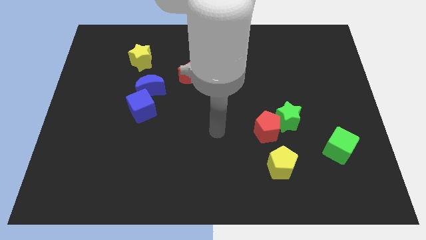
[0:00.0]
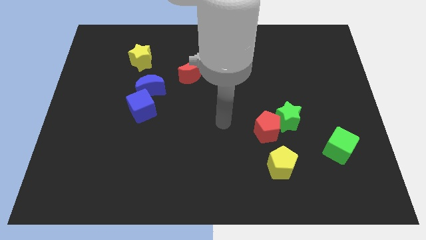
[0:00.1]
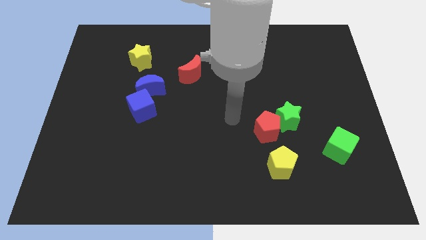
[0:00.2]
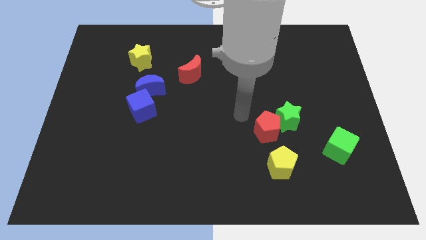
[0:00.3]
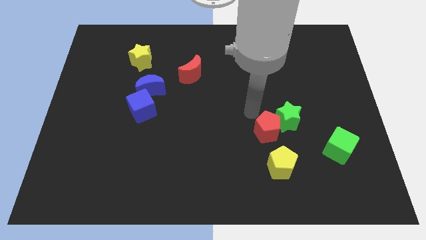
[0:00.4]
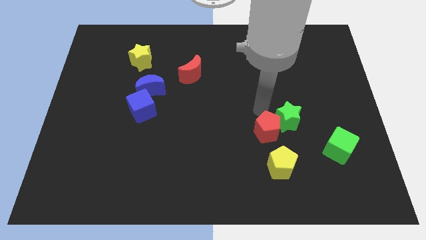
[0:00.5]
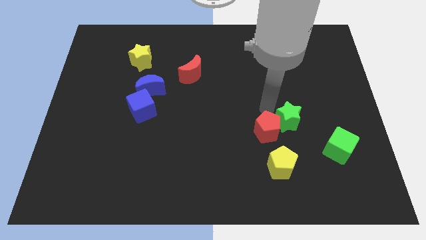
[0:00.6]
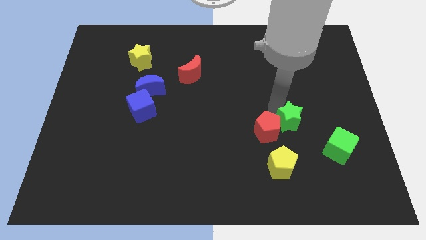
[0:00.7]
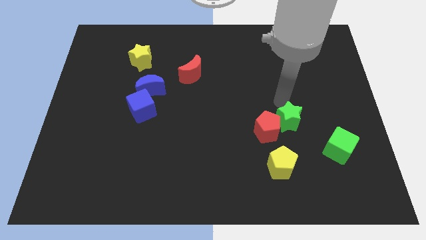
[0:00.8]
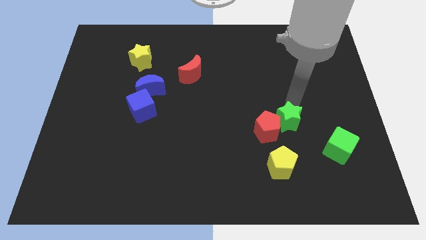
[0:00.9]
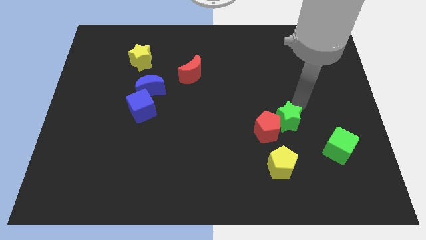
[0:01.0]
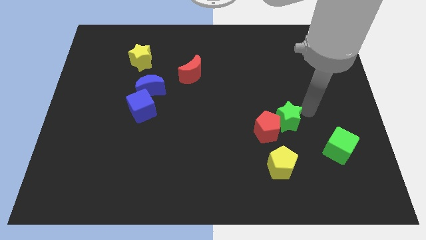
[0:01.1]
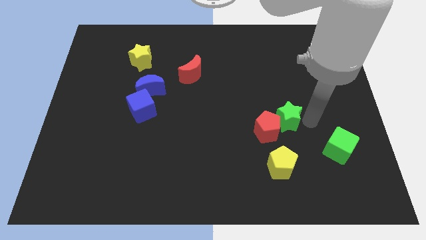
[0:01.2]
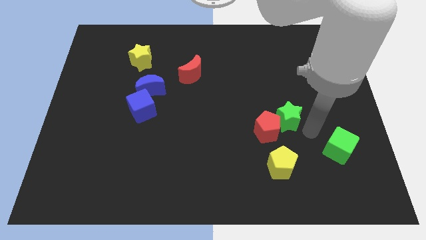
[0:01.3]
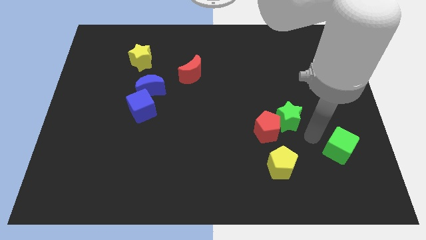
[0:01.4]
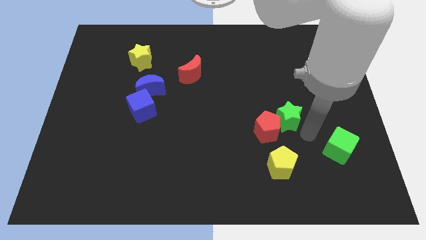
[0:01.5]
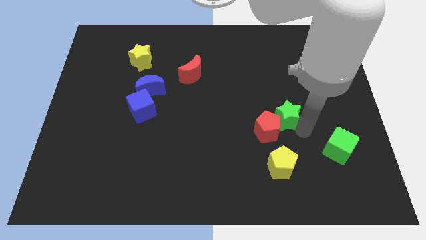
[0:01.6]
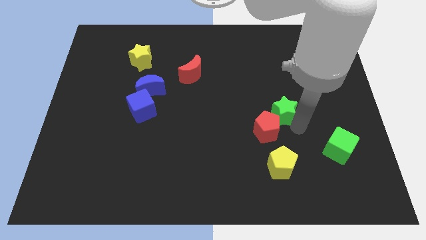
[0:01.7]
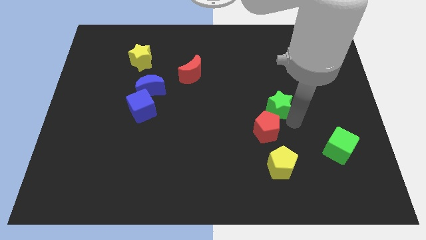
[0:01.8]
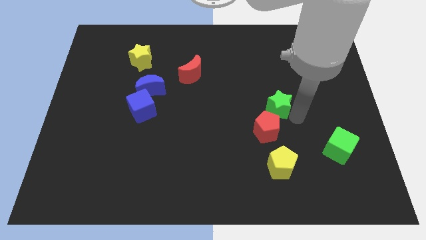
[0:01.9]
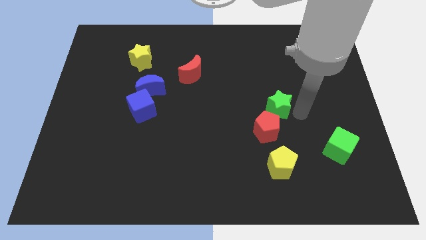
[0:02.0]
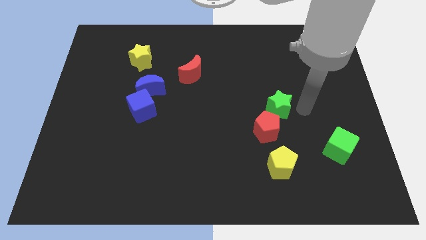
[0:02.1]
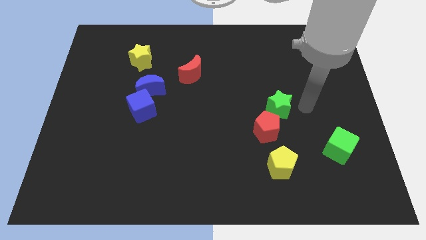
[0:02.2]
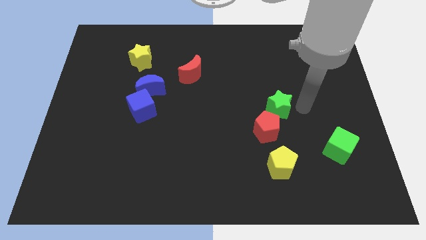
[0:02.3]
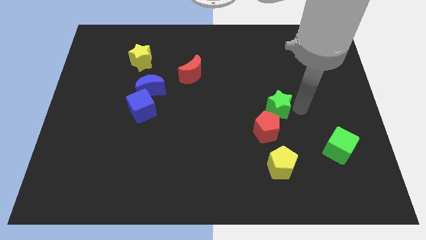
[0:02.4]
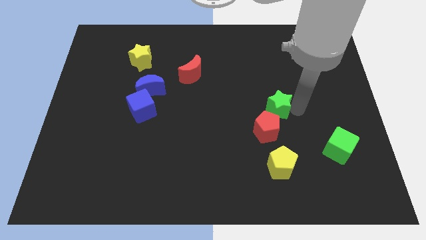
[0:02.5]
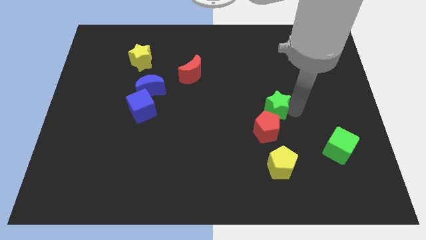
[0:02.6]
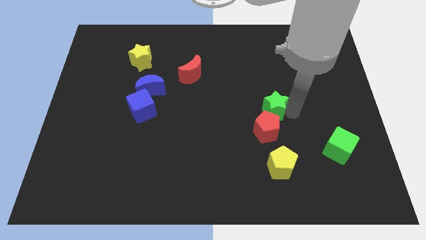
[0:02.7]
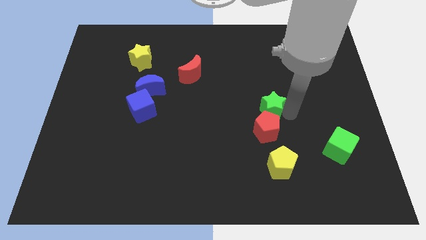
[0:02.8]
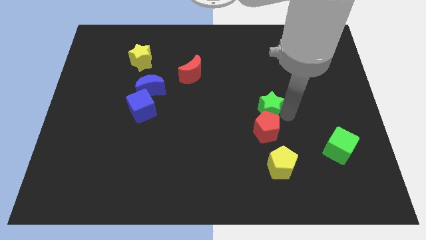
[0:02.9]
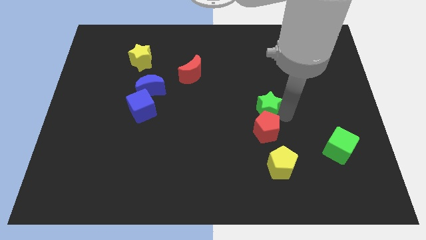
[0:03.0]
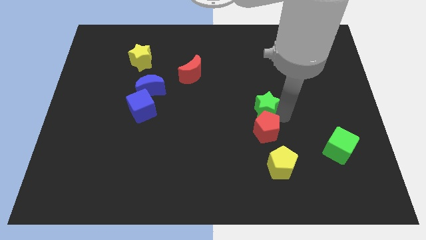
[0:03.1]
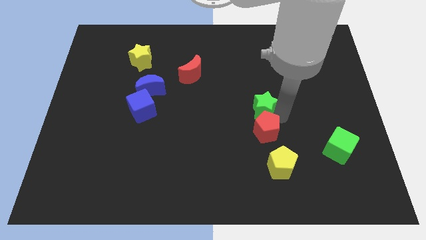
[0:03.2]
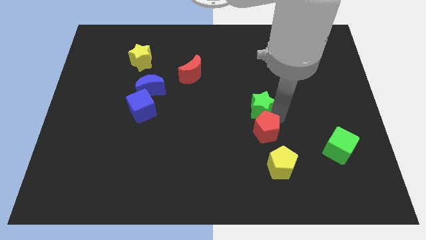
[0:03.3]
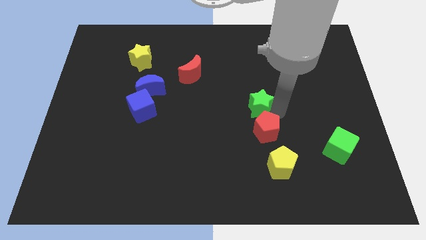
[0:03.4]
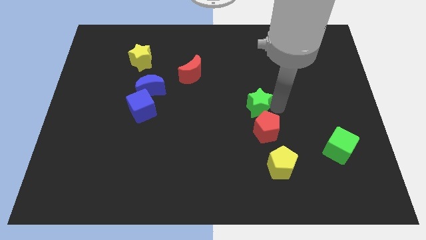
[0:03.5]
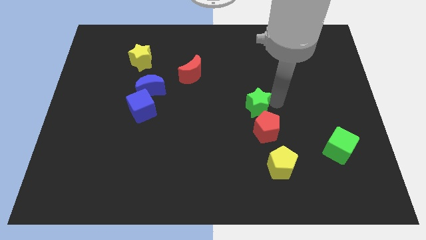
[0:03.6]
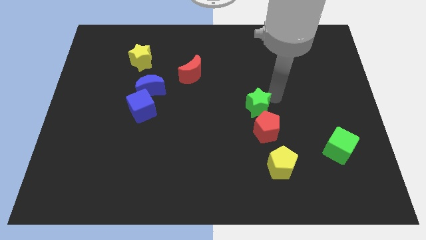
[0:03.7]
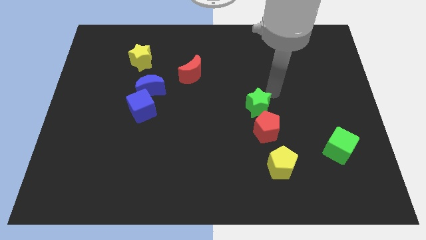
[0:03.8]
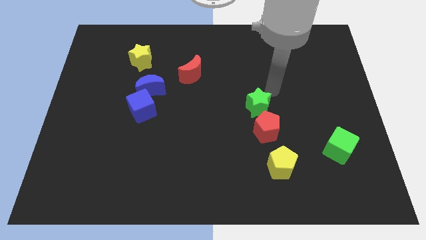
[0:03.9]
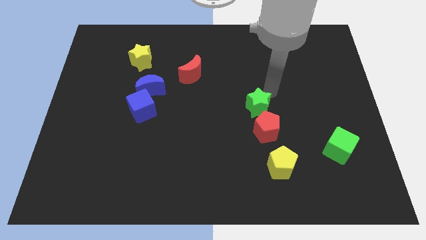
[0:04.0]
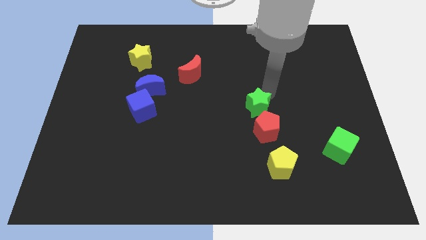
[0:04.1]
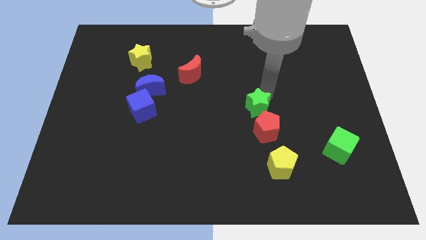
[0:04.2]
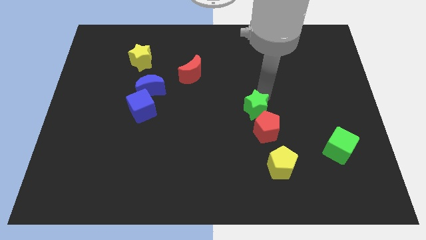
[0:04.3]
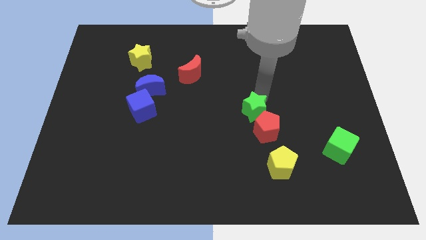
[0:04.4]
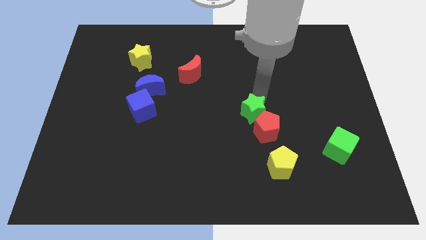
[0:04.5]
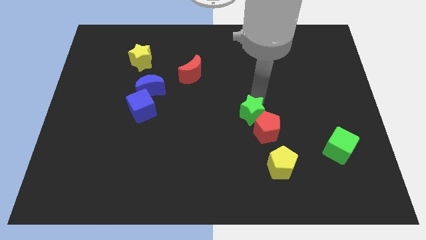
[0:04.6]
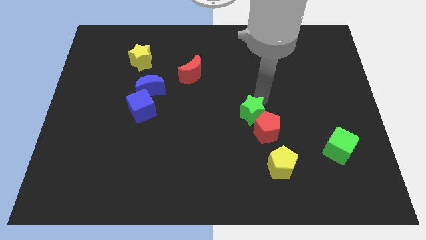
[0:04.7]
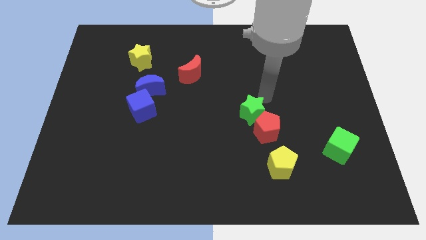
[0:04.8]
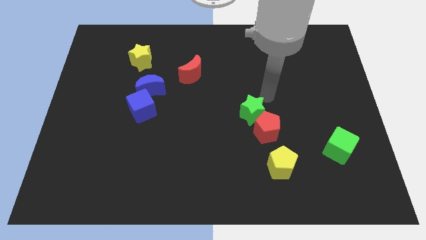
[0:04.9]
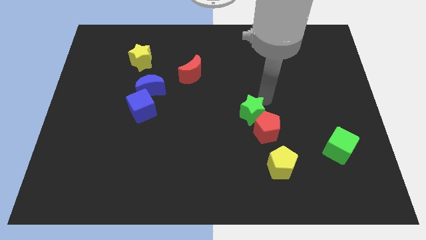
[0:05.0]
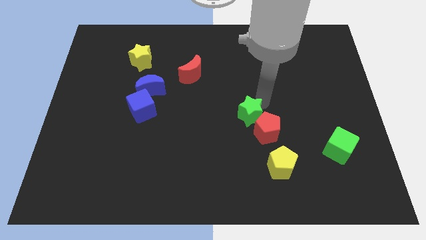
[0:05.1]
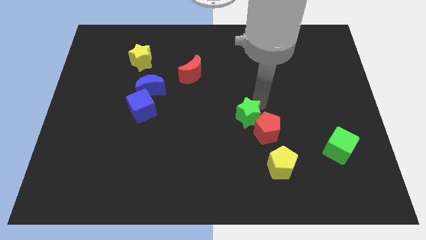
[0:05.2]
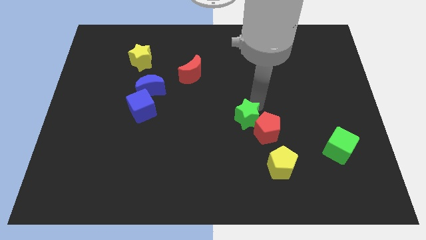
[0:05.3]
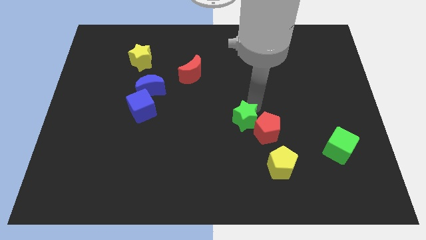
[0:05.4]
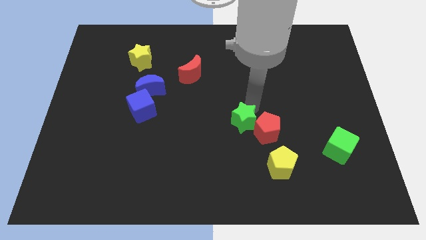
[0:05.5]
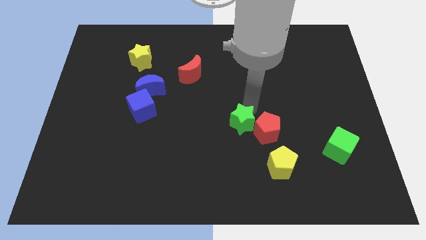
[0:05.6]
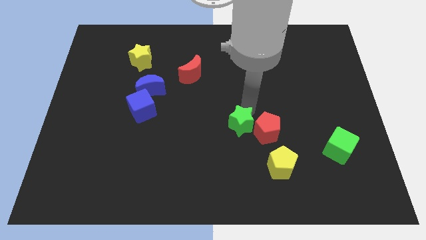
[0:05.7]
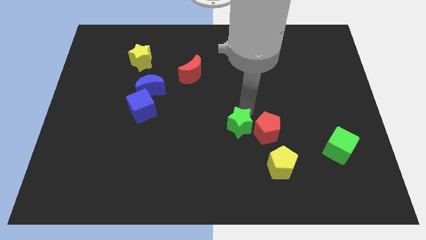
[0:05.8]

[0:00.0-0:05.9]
slightly push the green star down and left diagonally

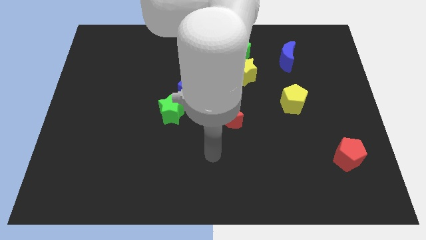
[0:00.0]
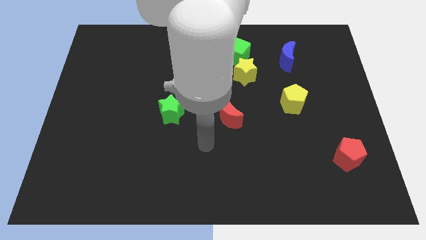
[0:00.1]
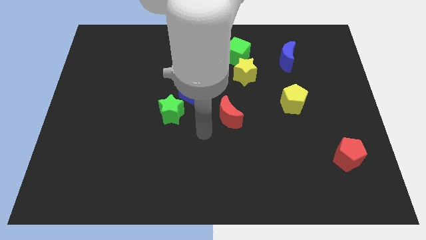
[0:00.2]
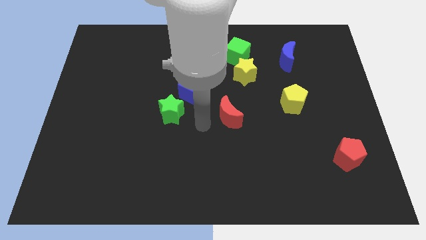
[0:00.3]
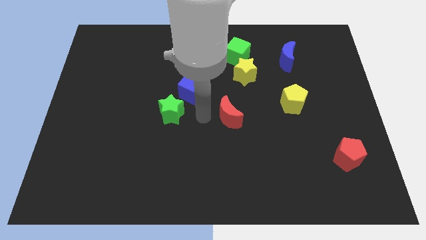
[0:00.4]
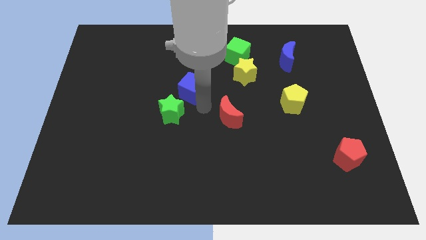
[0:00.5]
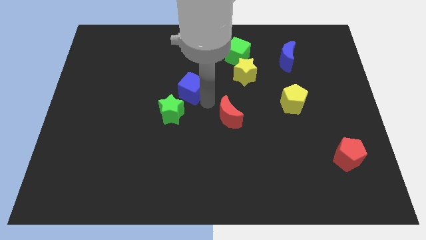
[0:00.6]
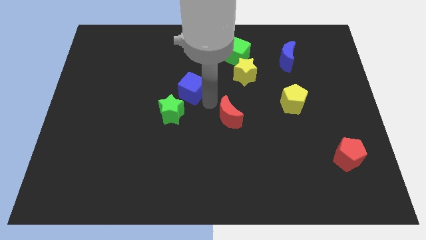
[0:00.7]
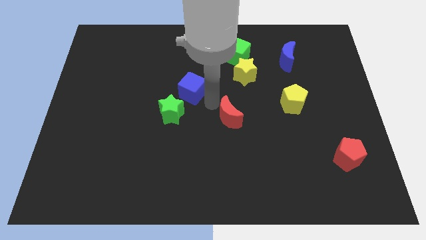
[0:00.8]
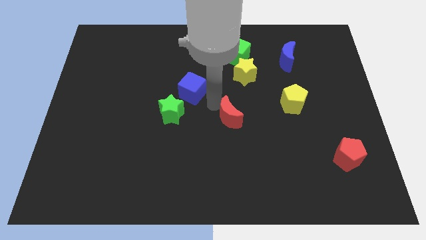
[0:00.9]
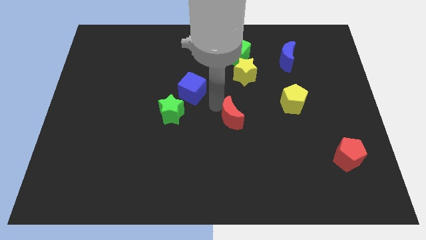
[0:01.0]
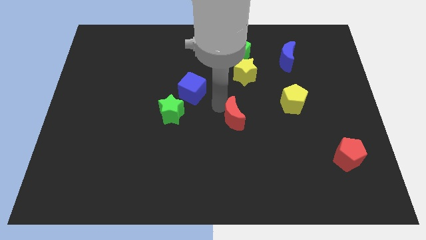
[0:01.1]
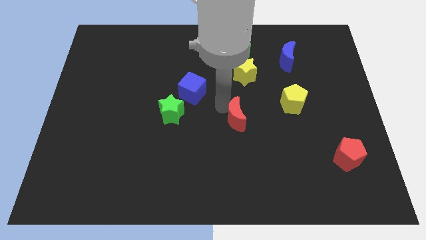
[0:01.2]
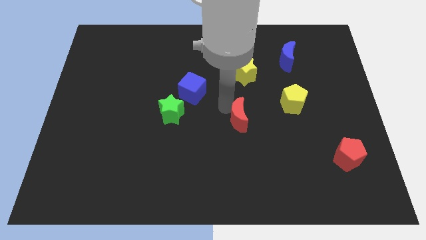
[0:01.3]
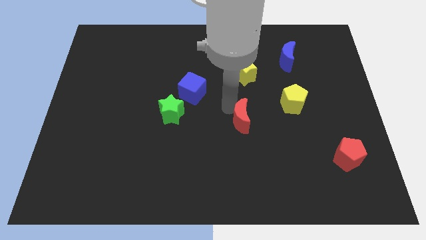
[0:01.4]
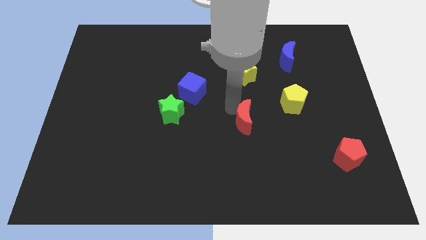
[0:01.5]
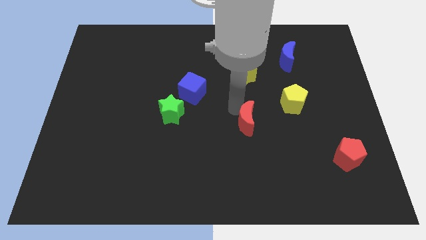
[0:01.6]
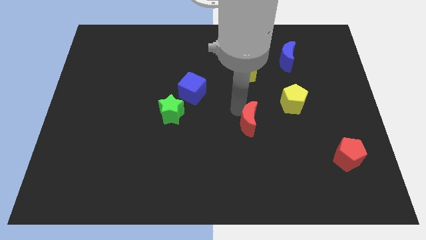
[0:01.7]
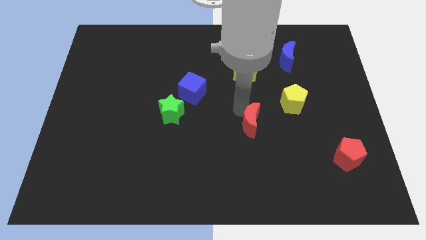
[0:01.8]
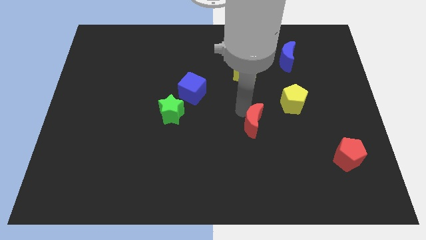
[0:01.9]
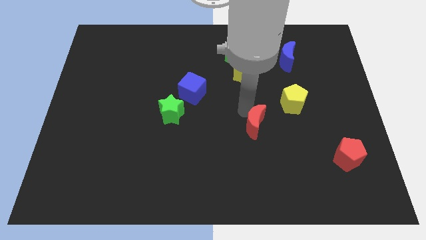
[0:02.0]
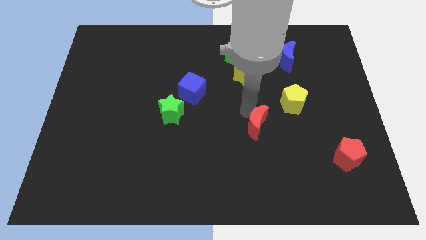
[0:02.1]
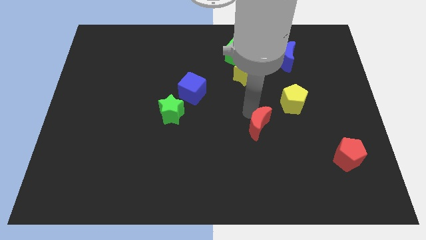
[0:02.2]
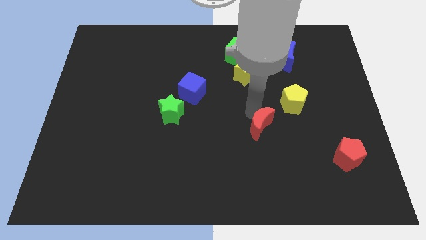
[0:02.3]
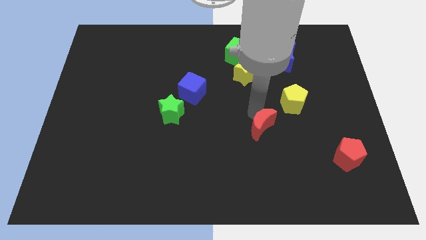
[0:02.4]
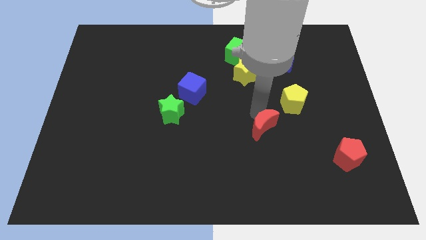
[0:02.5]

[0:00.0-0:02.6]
slightly push the red moon down and then right
